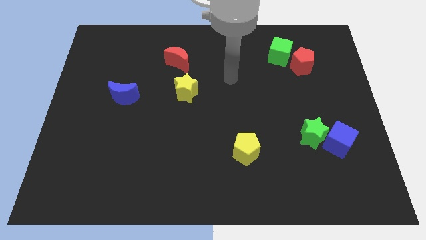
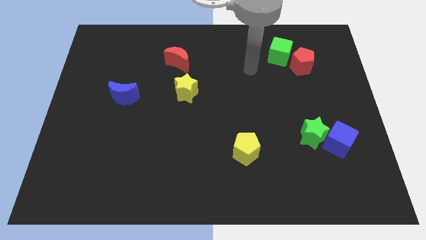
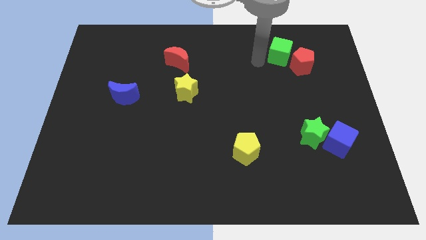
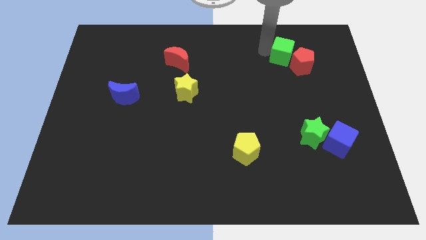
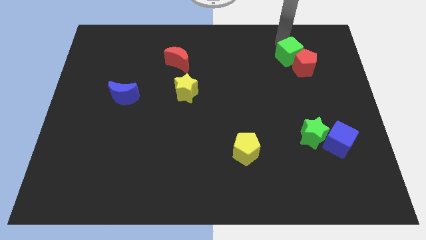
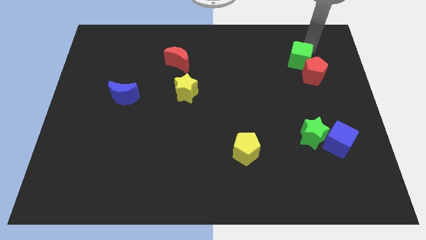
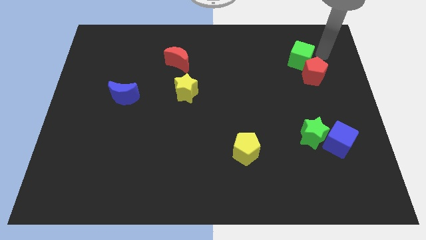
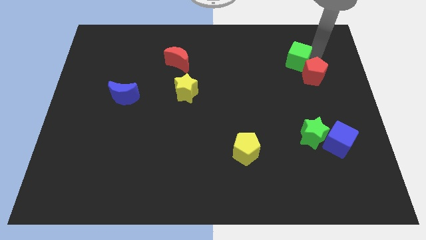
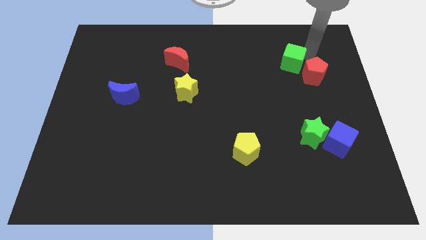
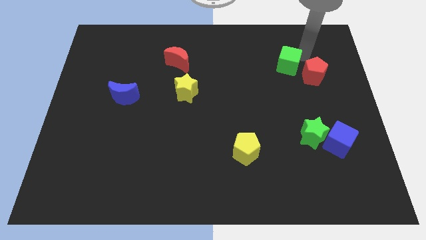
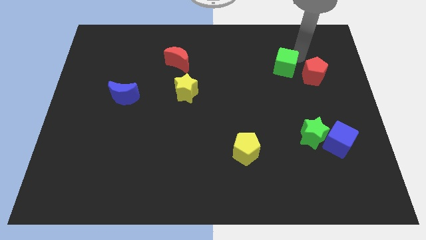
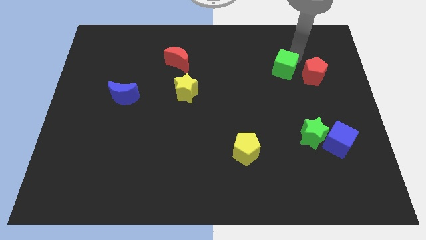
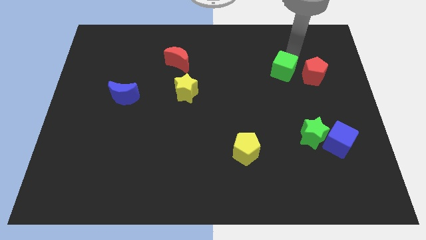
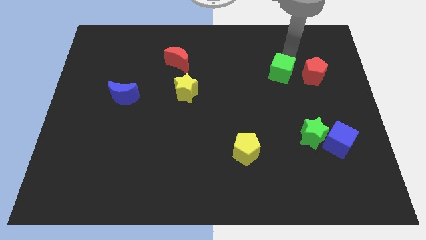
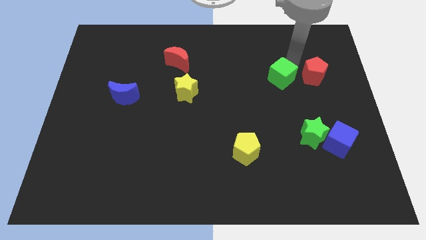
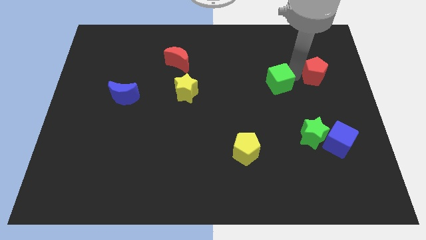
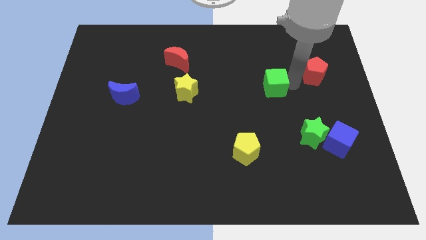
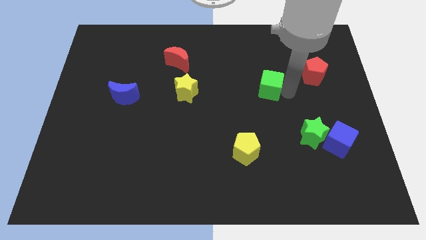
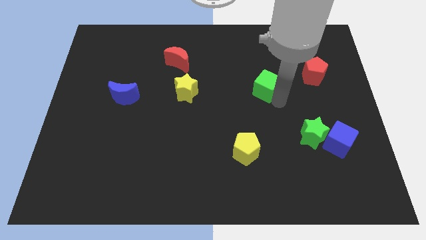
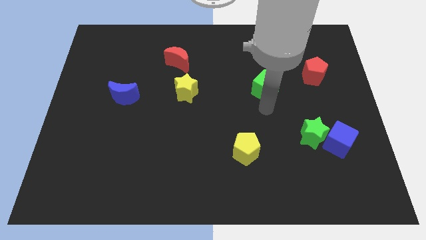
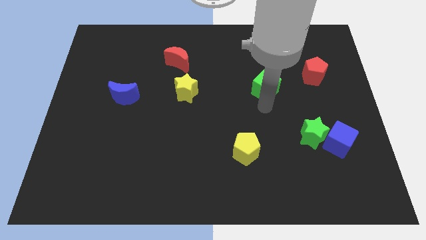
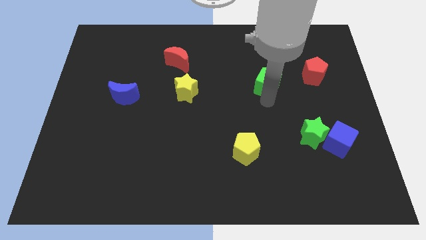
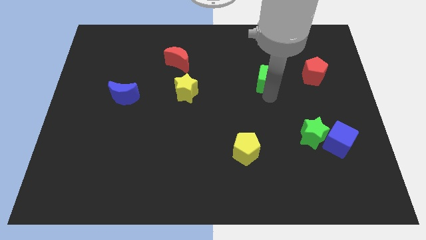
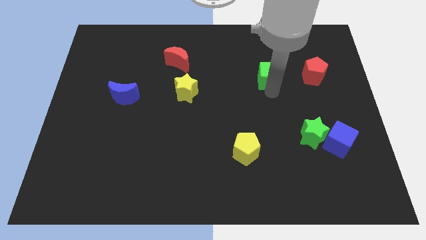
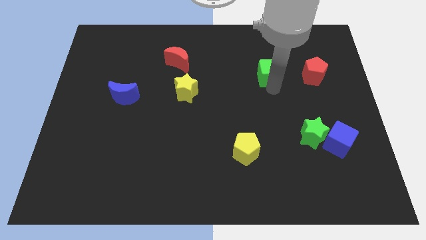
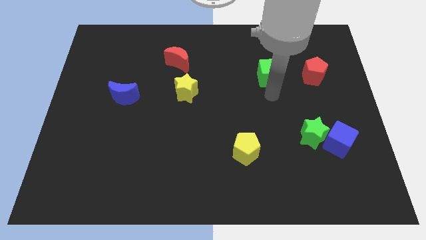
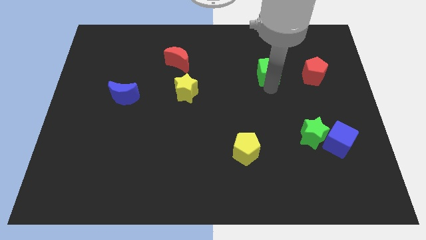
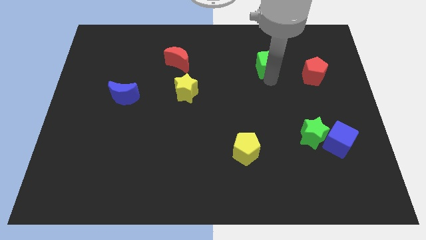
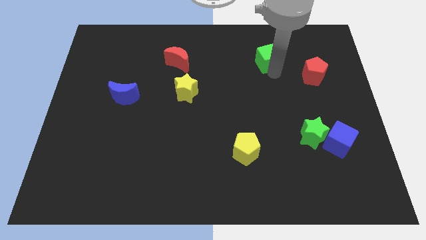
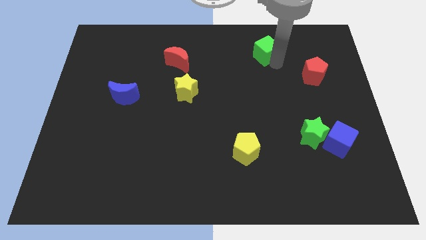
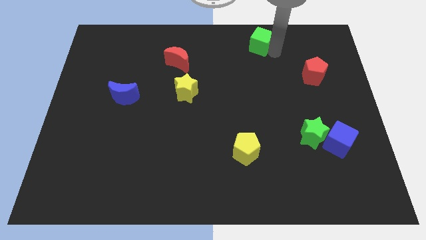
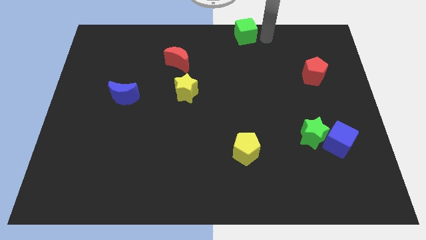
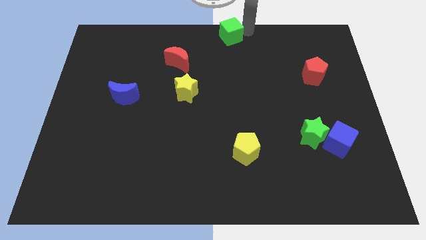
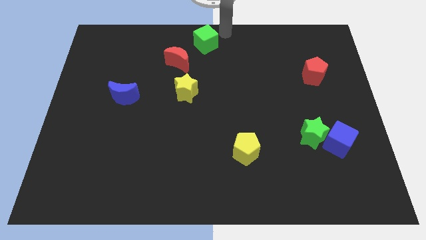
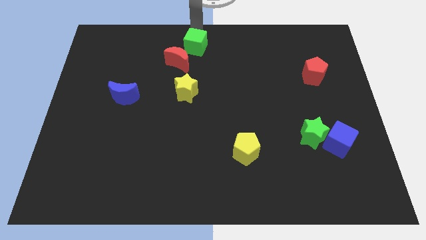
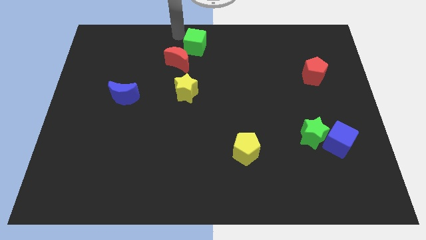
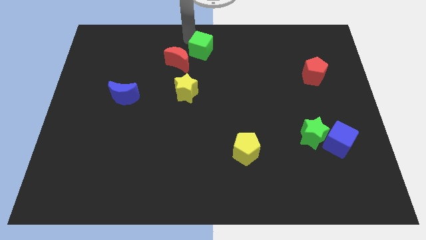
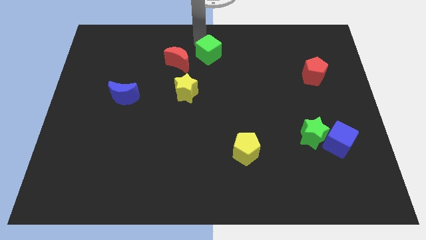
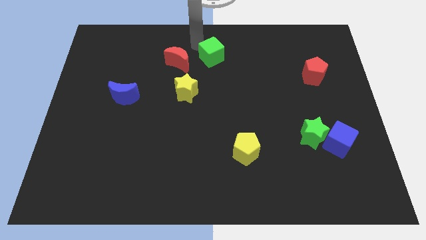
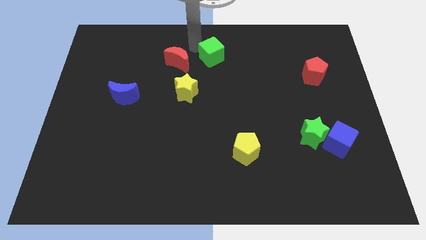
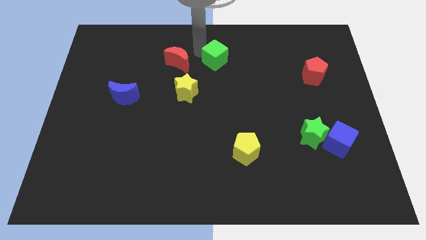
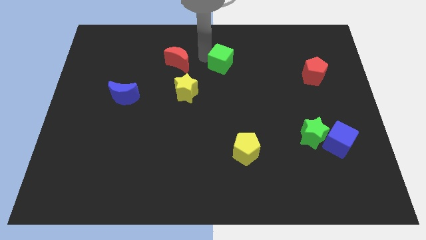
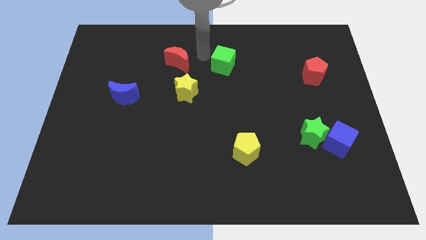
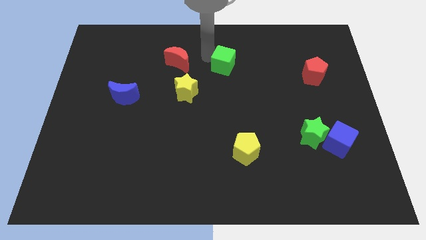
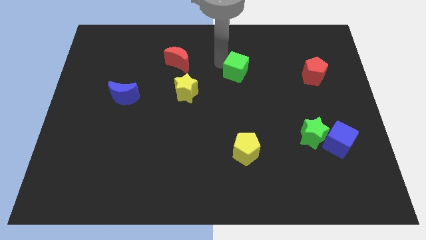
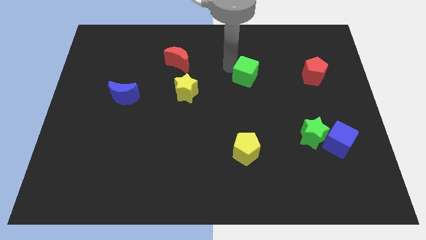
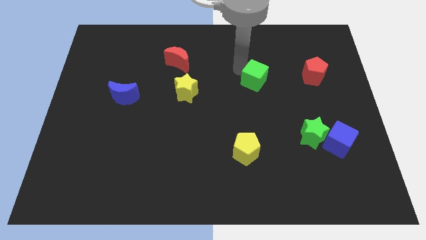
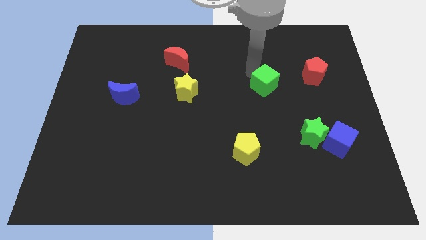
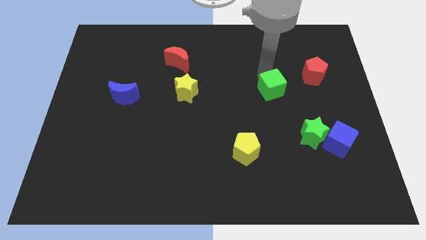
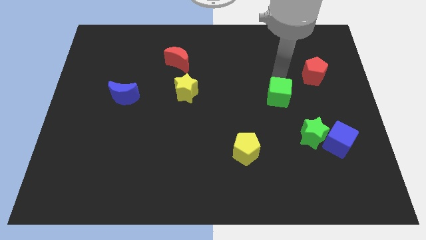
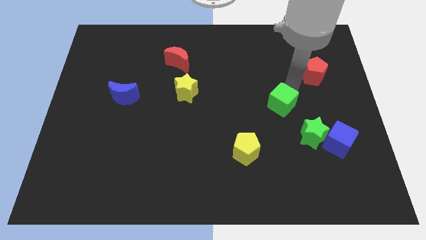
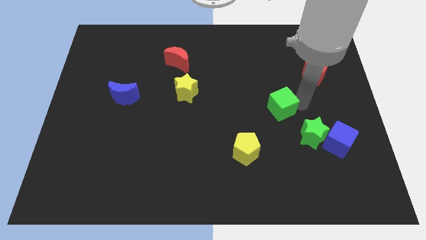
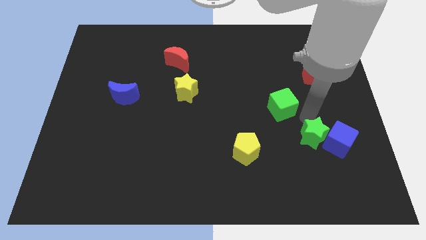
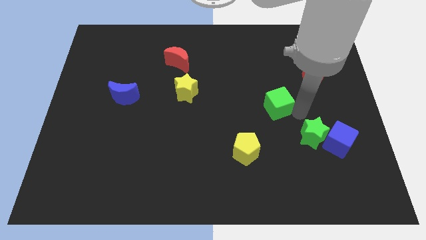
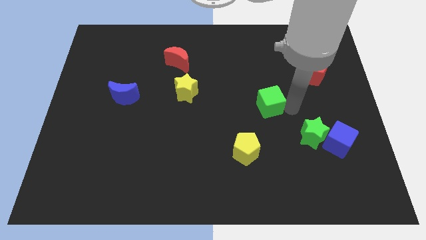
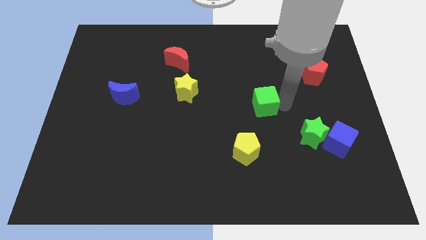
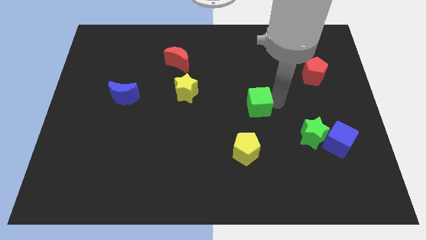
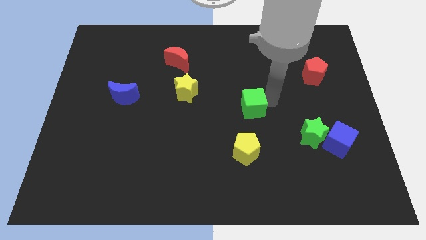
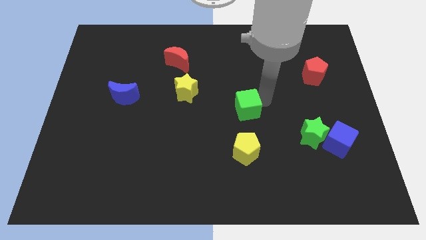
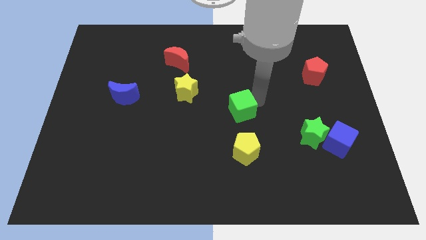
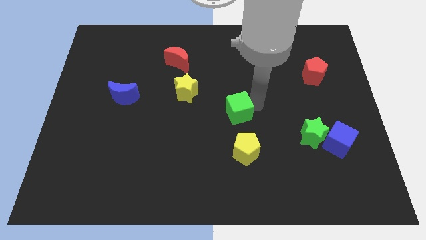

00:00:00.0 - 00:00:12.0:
push the green cube down and to the left

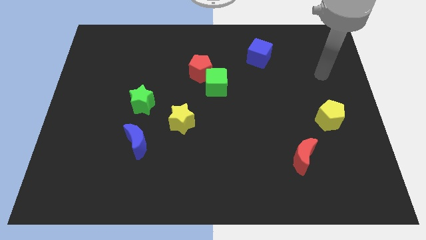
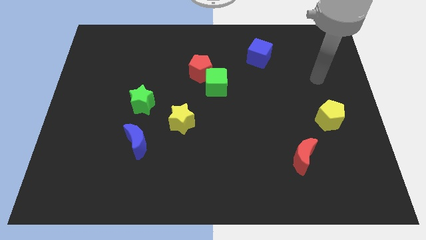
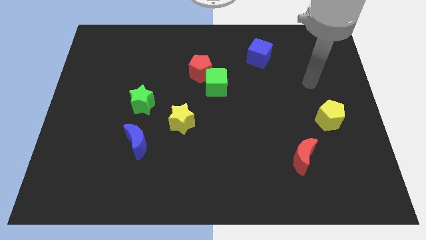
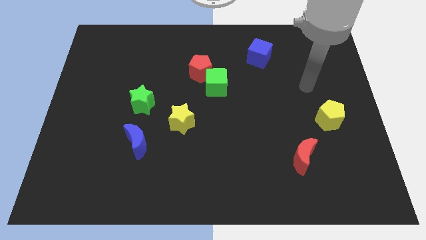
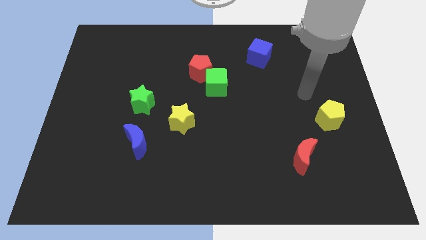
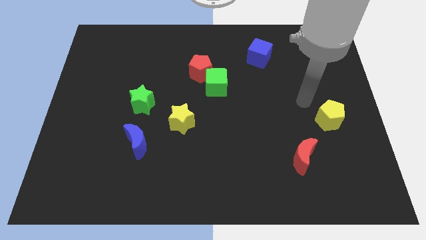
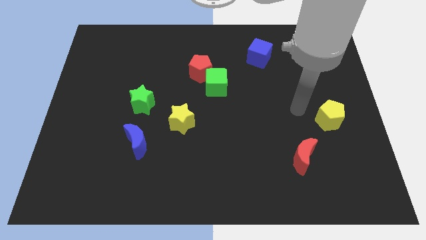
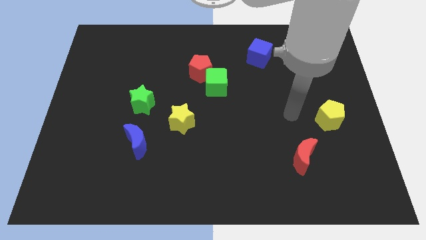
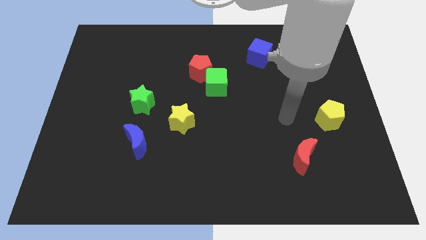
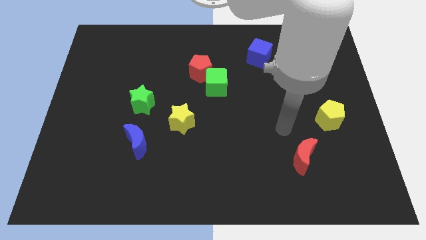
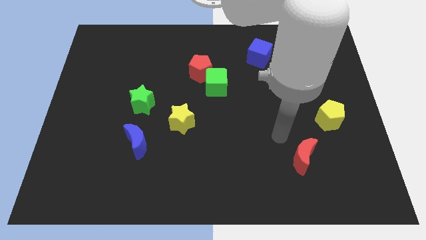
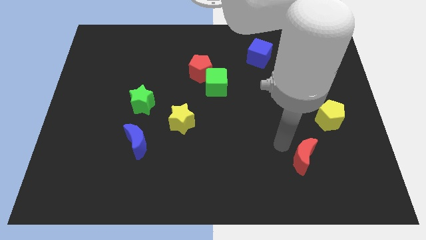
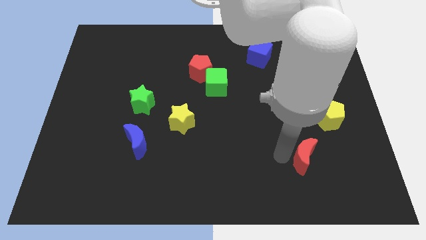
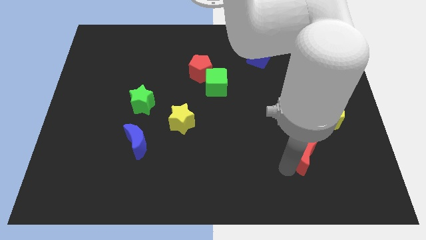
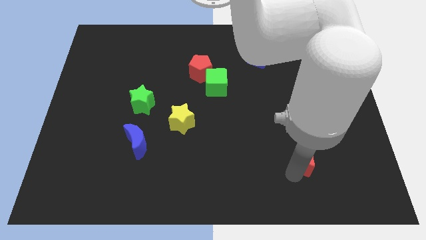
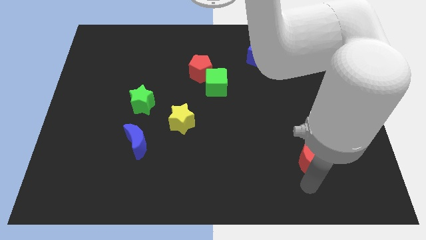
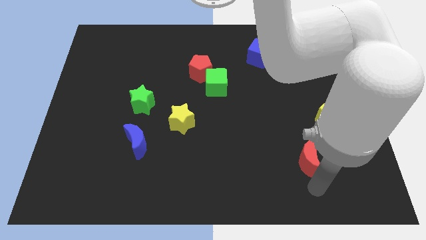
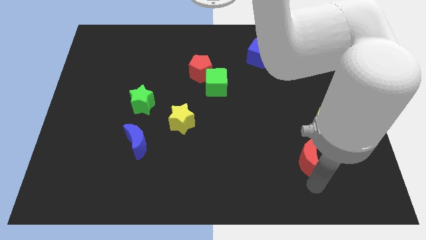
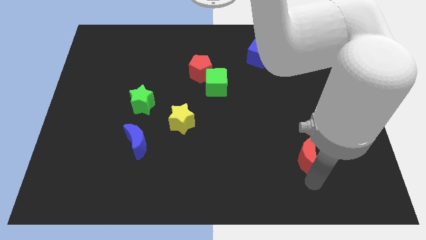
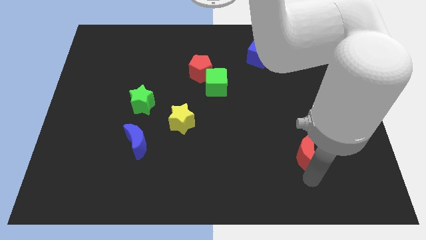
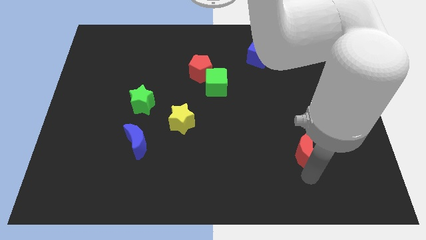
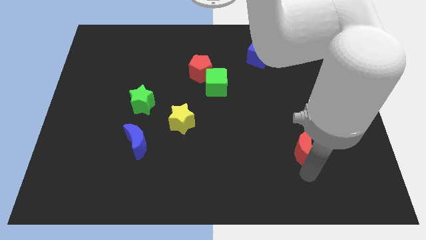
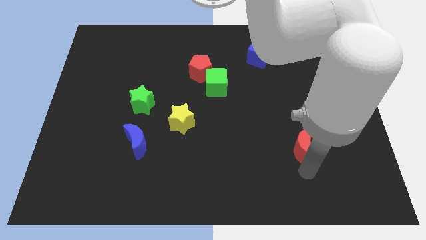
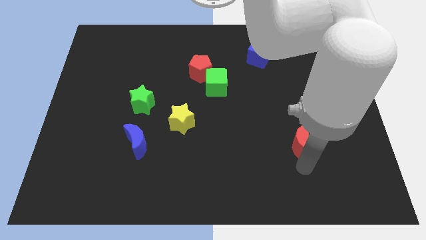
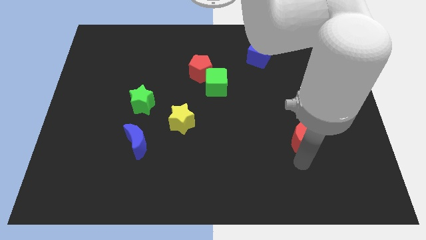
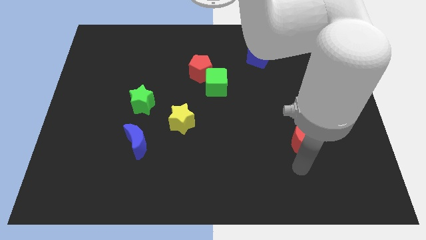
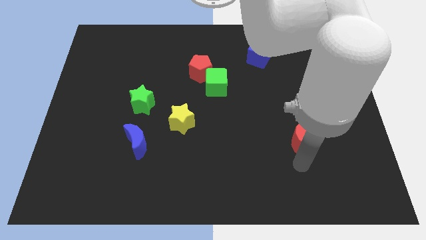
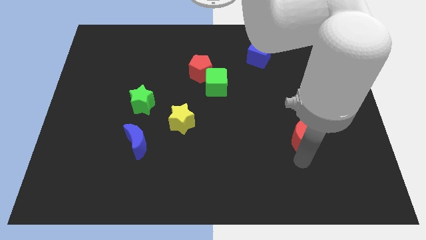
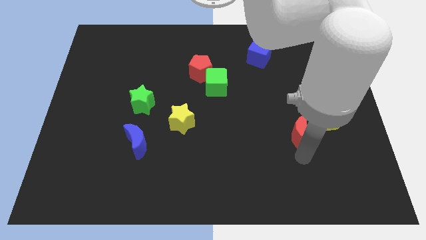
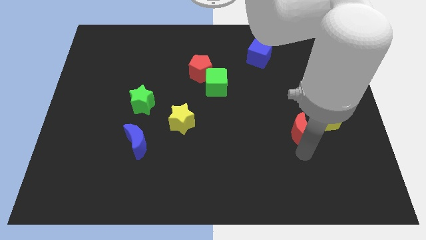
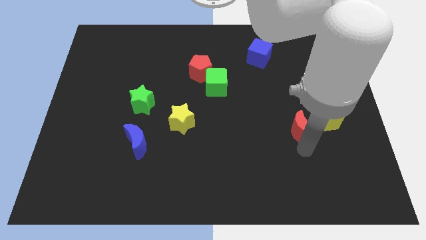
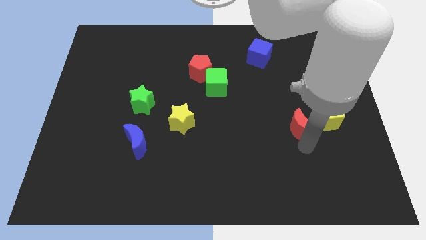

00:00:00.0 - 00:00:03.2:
slide the red moon a bit up
